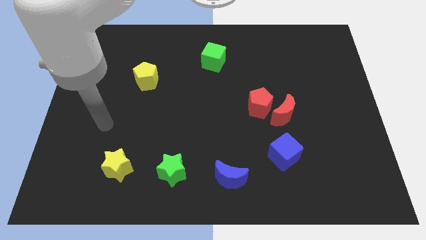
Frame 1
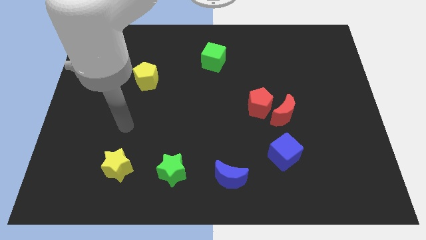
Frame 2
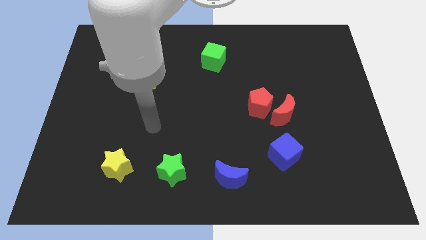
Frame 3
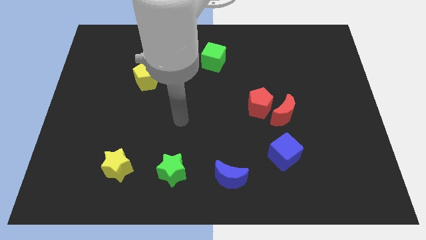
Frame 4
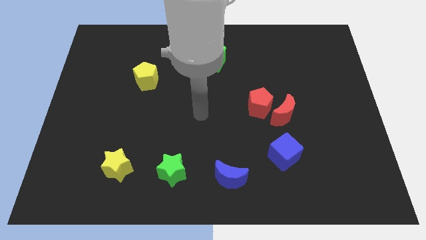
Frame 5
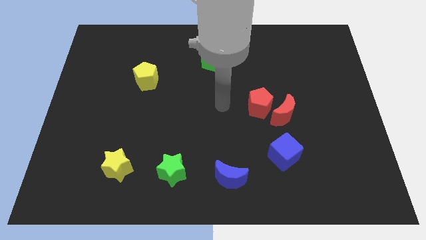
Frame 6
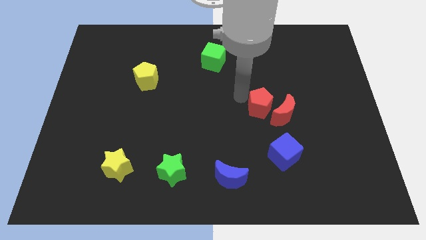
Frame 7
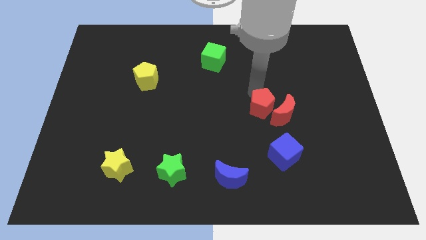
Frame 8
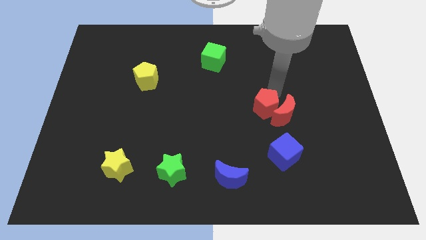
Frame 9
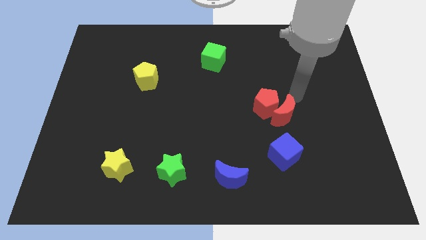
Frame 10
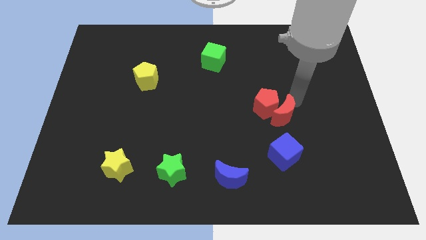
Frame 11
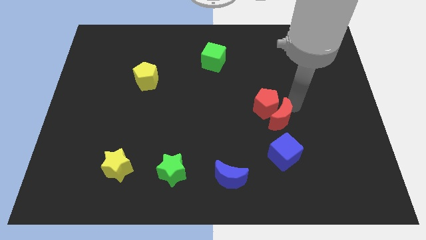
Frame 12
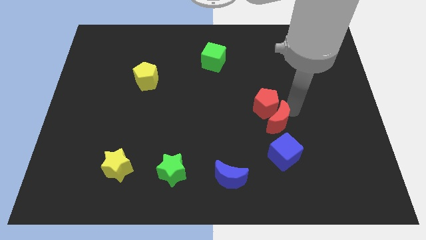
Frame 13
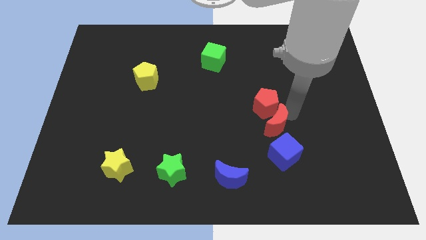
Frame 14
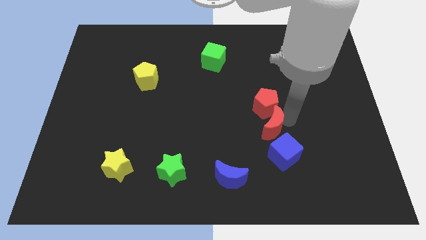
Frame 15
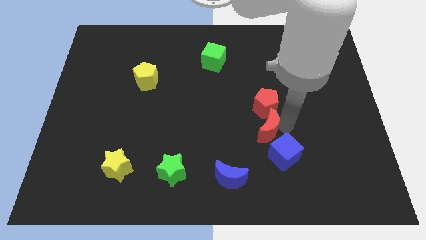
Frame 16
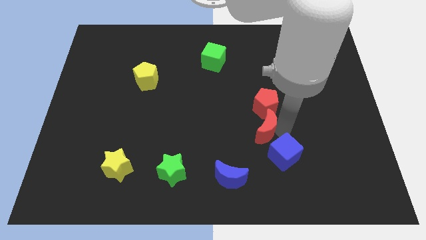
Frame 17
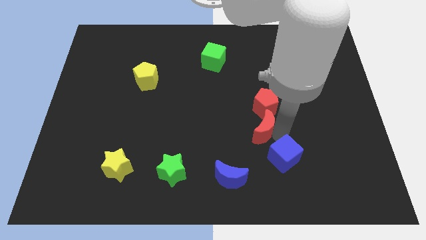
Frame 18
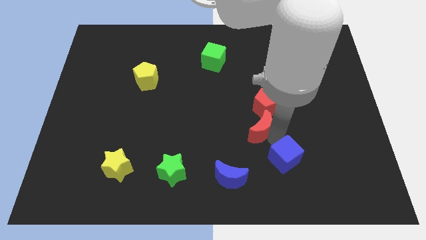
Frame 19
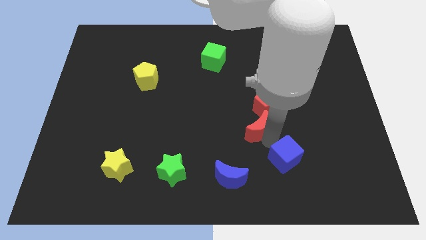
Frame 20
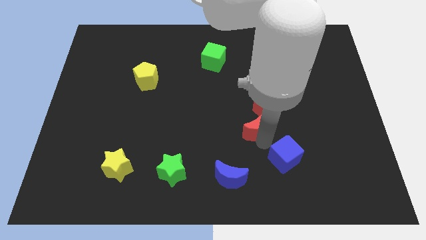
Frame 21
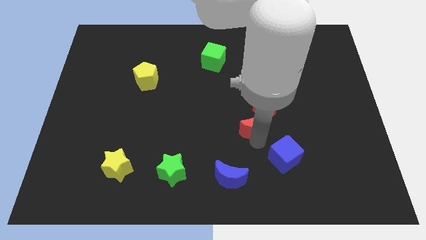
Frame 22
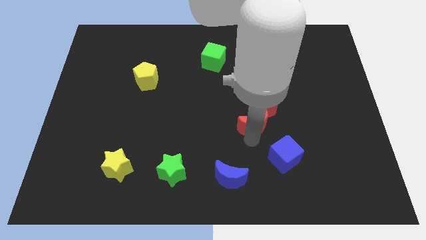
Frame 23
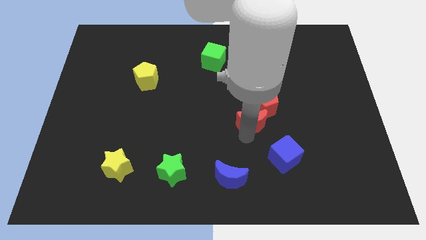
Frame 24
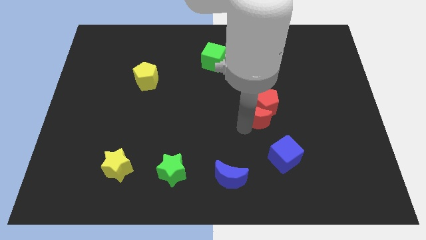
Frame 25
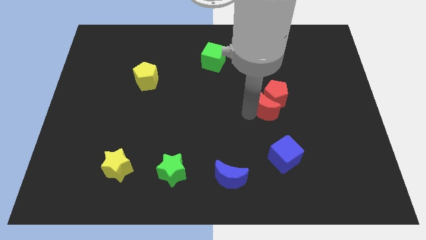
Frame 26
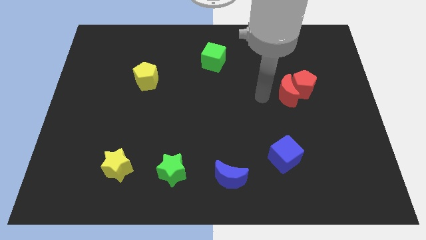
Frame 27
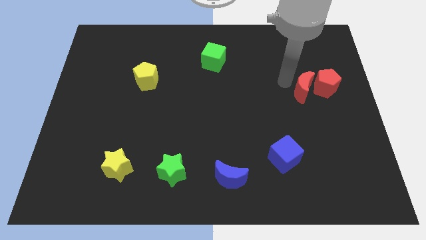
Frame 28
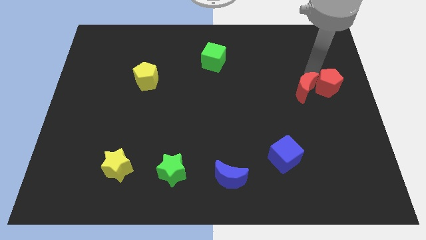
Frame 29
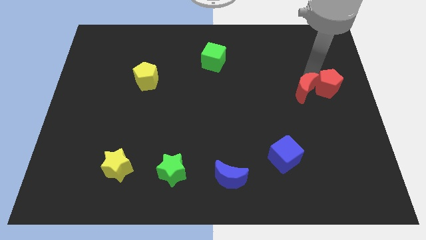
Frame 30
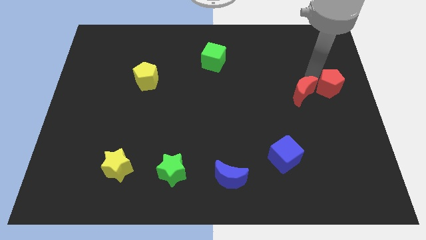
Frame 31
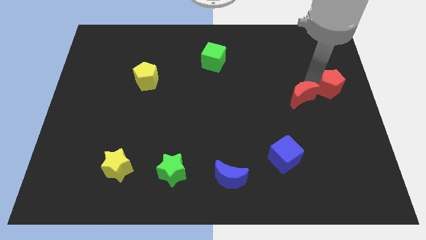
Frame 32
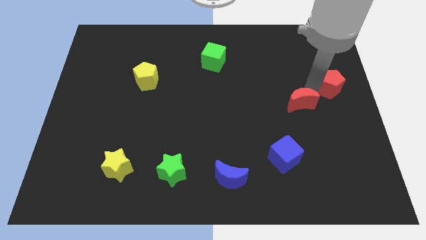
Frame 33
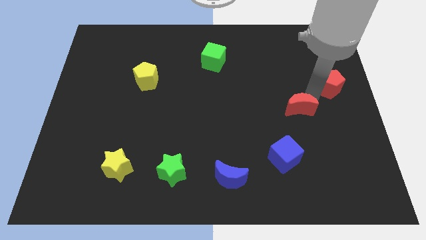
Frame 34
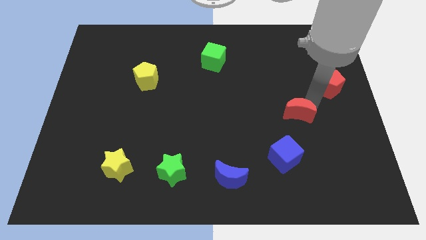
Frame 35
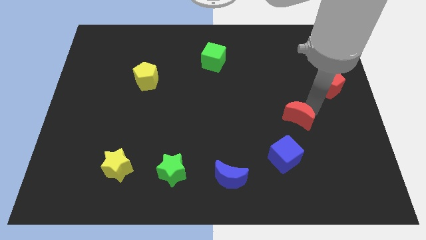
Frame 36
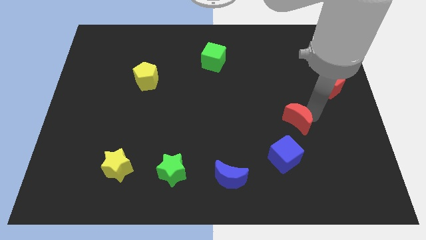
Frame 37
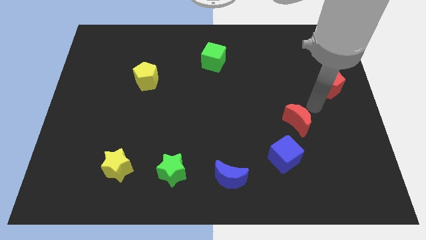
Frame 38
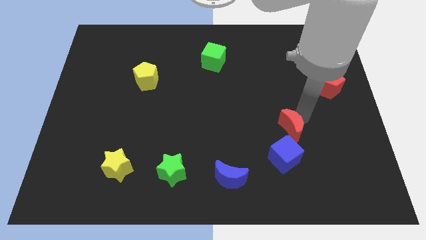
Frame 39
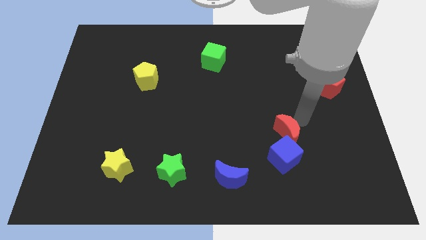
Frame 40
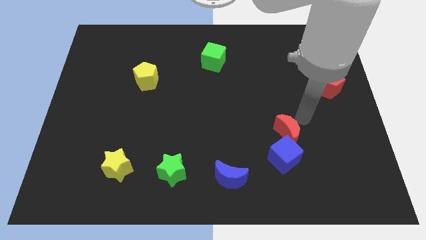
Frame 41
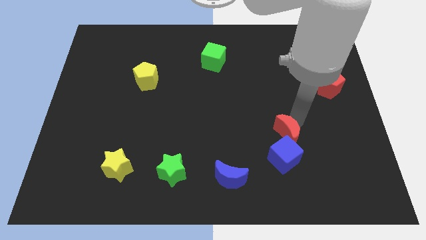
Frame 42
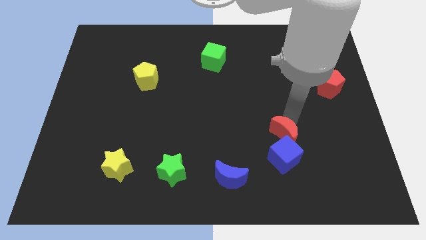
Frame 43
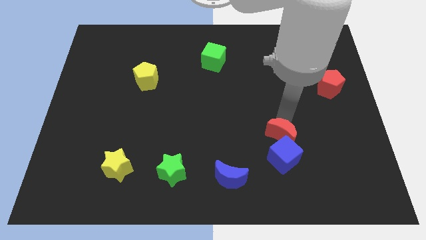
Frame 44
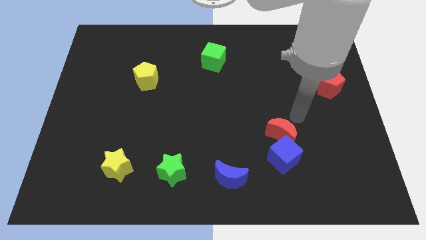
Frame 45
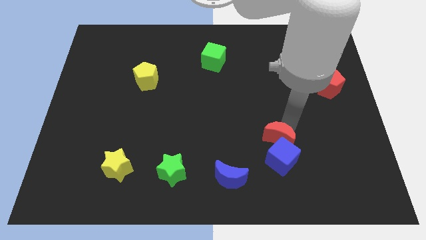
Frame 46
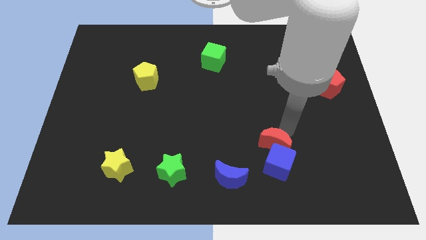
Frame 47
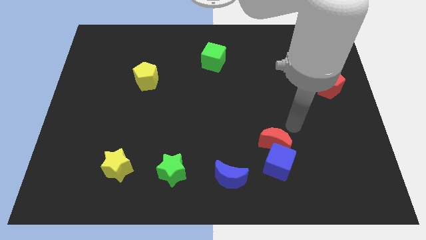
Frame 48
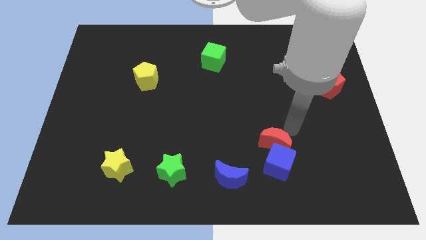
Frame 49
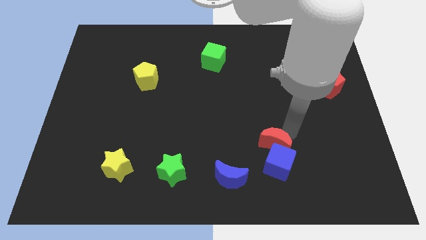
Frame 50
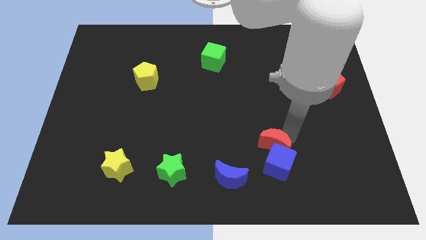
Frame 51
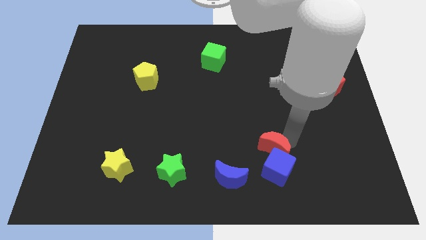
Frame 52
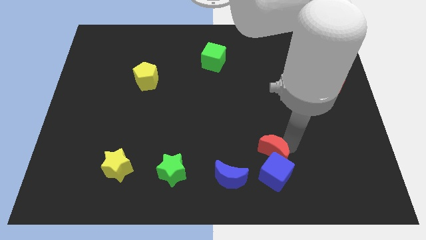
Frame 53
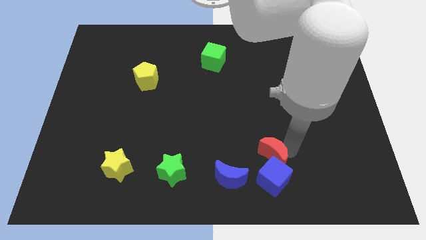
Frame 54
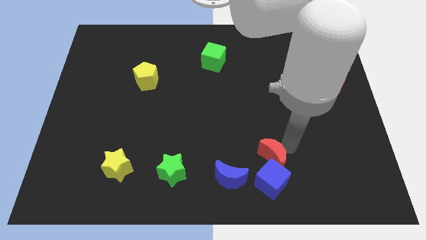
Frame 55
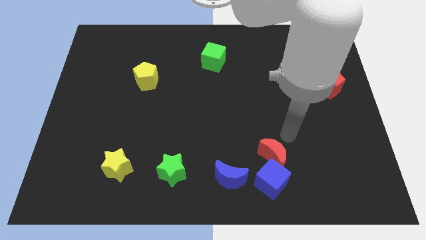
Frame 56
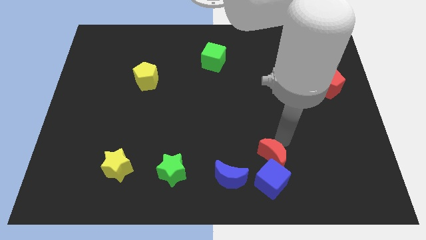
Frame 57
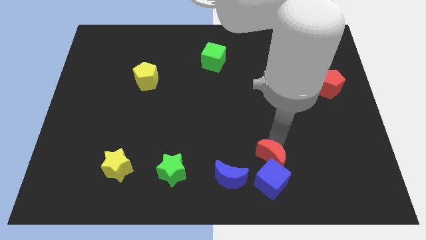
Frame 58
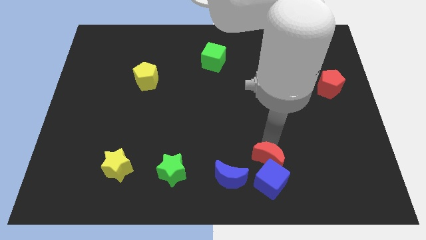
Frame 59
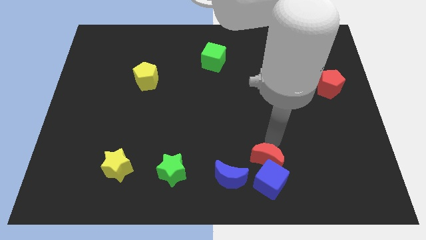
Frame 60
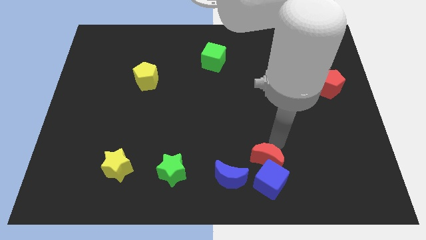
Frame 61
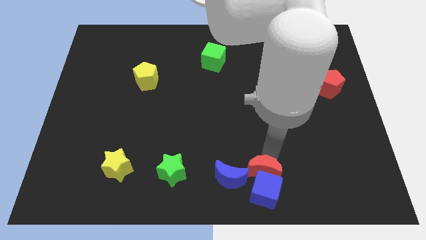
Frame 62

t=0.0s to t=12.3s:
slide the red moon to the bottom

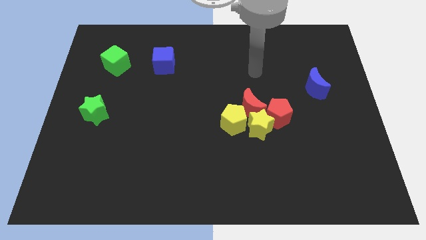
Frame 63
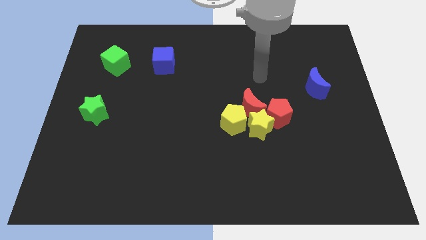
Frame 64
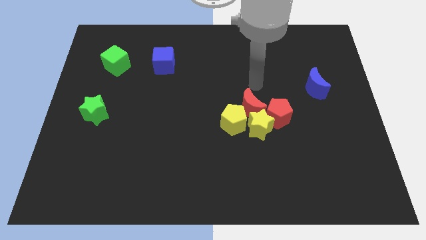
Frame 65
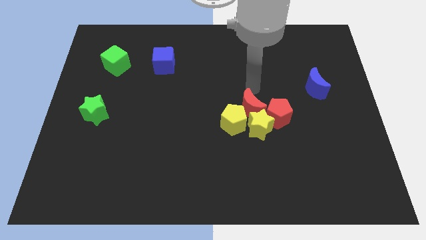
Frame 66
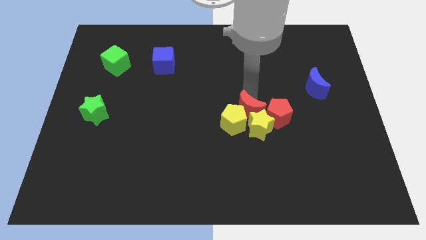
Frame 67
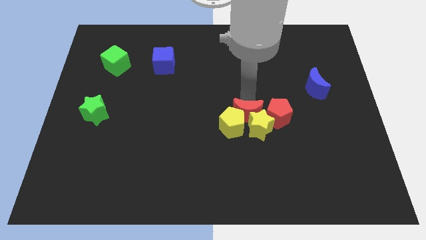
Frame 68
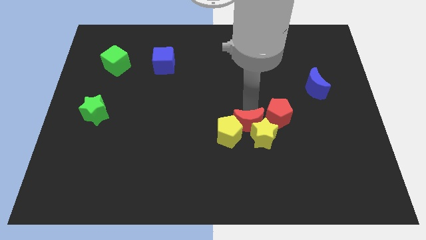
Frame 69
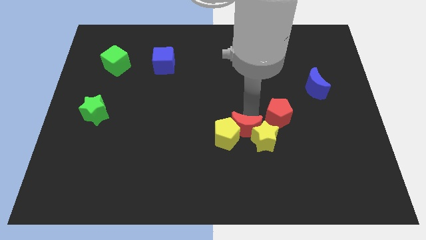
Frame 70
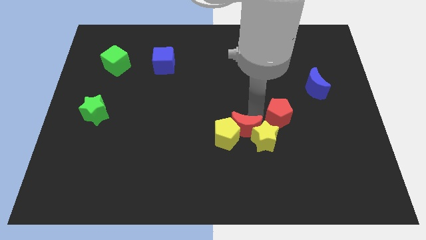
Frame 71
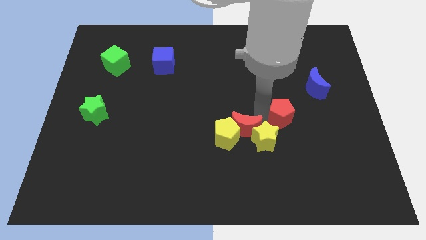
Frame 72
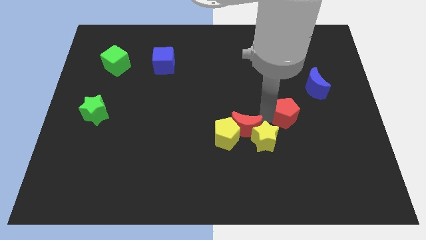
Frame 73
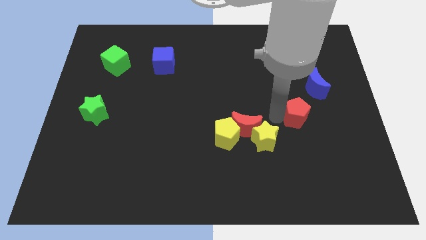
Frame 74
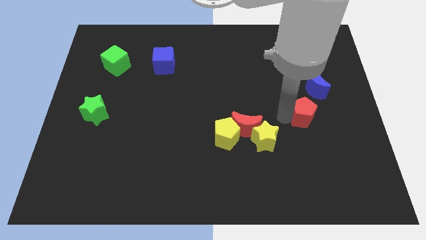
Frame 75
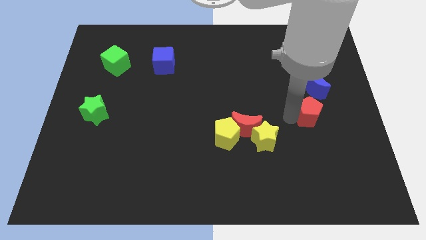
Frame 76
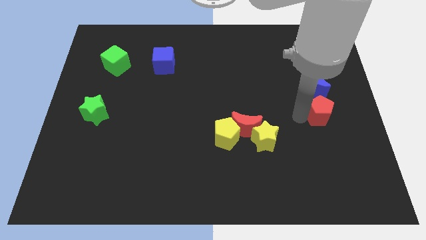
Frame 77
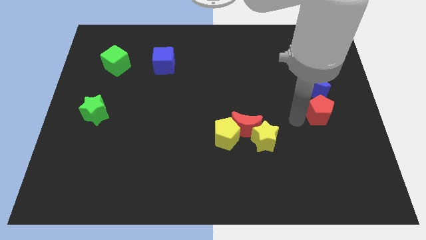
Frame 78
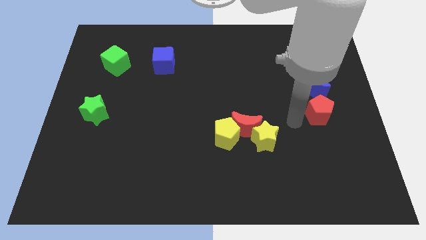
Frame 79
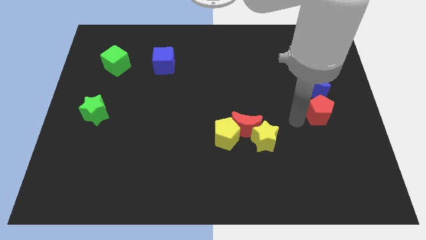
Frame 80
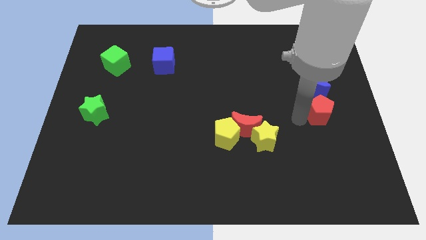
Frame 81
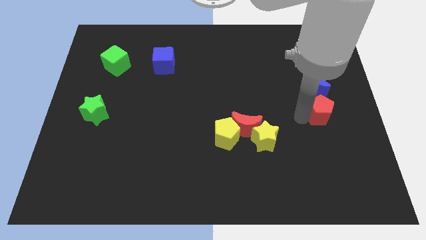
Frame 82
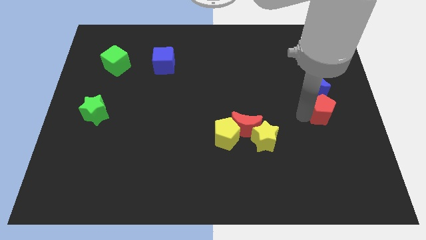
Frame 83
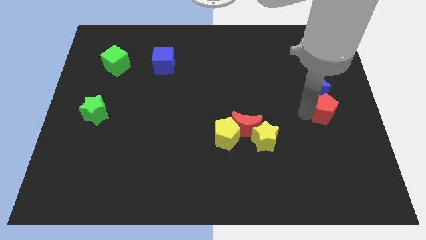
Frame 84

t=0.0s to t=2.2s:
push the red pentagon to the right side of the board

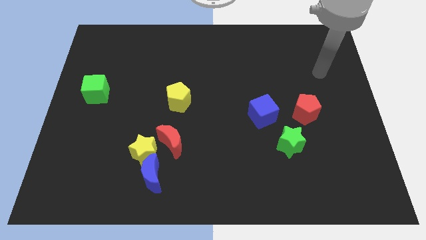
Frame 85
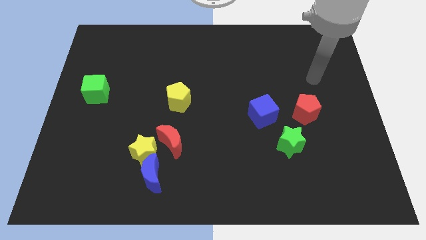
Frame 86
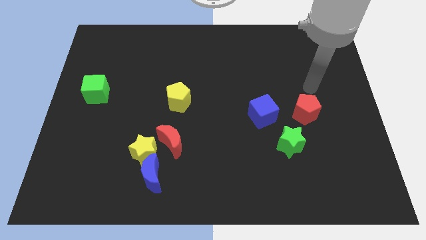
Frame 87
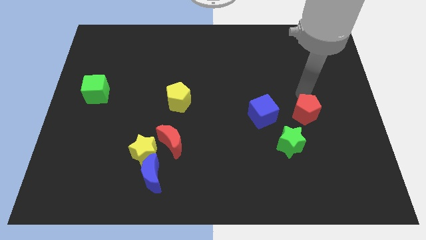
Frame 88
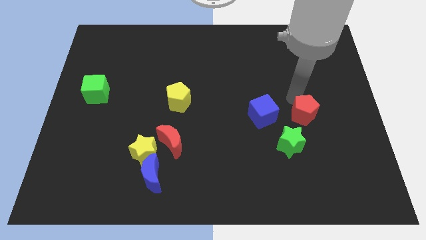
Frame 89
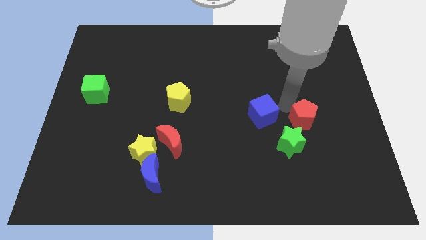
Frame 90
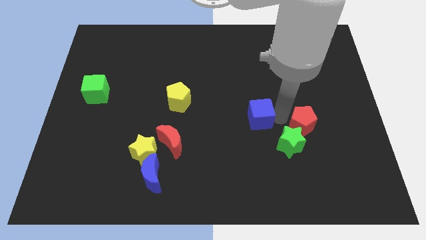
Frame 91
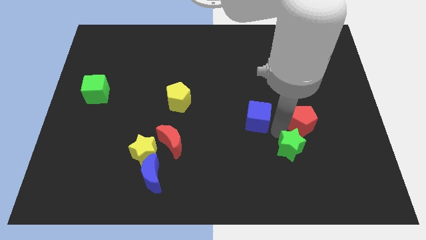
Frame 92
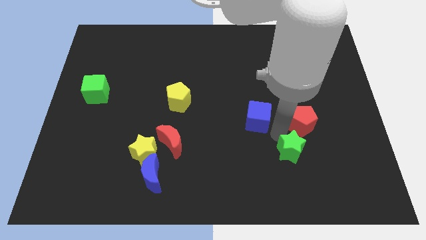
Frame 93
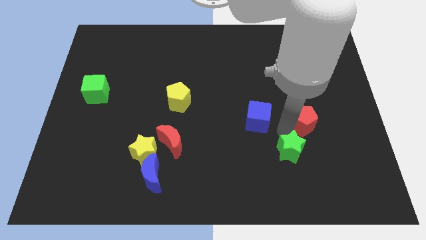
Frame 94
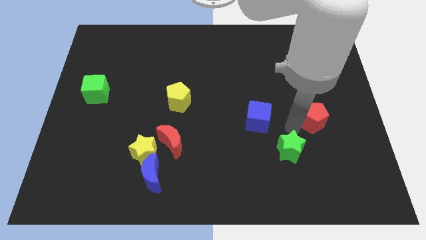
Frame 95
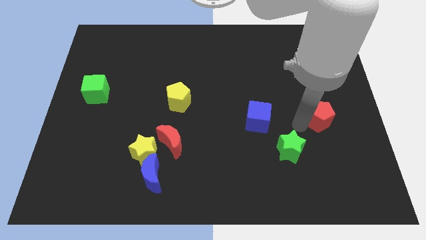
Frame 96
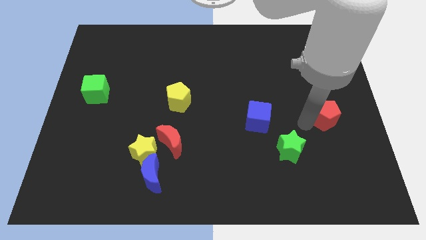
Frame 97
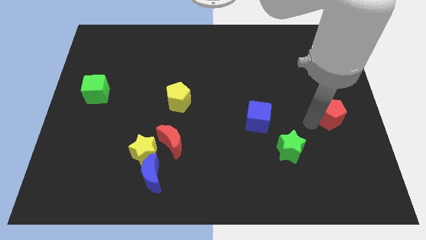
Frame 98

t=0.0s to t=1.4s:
push the red pentagon to the right side
